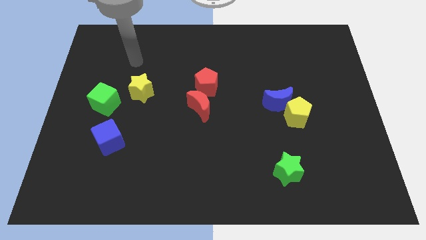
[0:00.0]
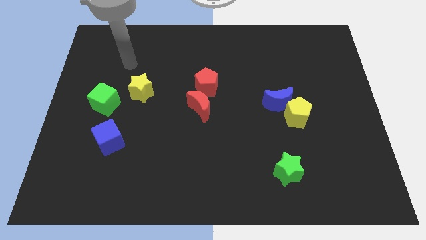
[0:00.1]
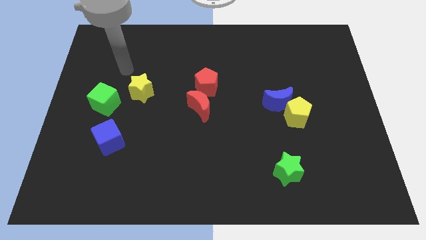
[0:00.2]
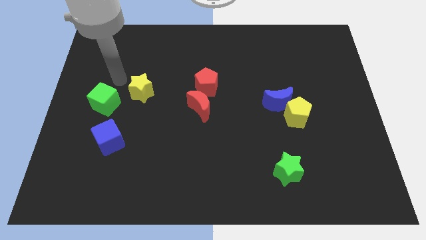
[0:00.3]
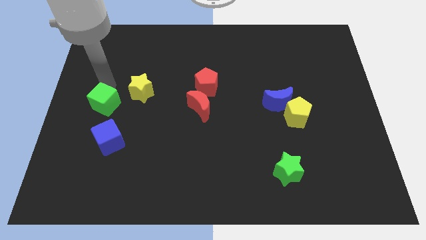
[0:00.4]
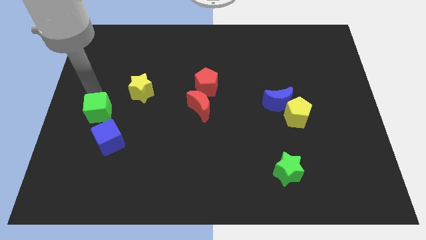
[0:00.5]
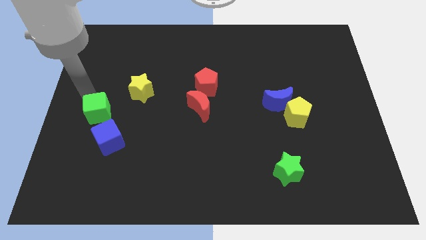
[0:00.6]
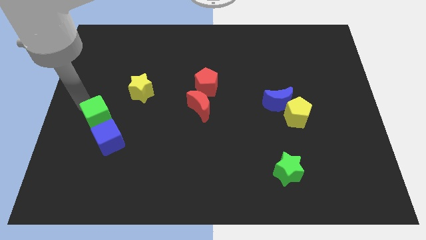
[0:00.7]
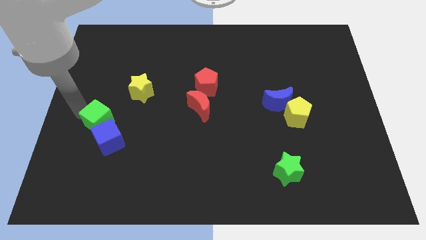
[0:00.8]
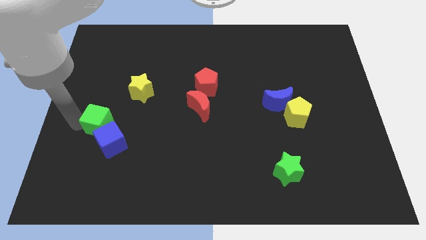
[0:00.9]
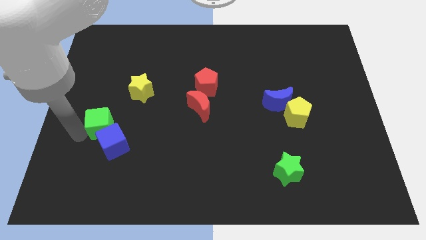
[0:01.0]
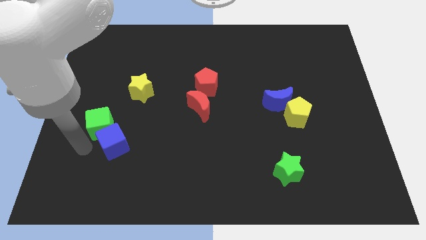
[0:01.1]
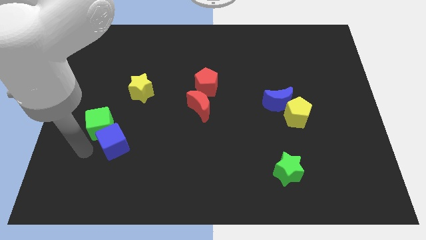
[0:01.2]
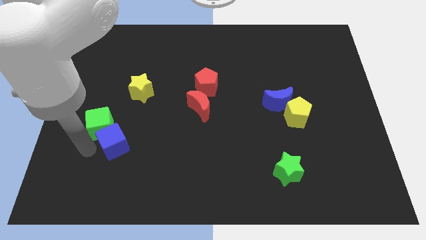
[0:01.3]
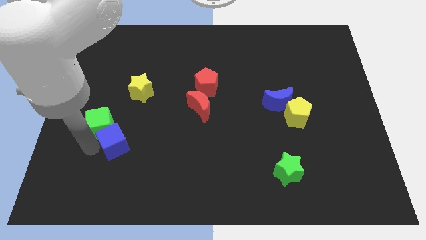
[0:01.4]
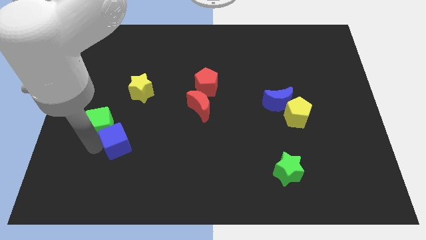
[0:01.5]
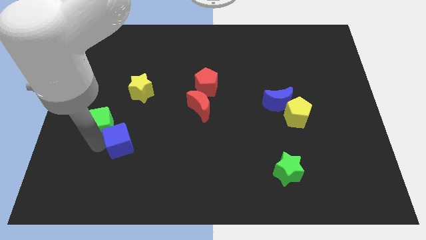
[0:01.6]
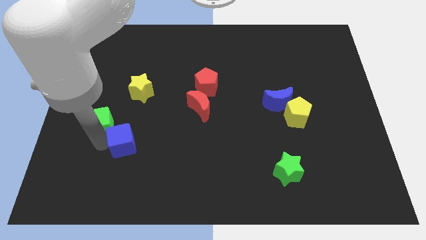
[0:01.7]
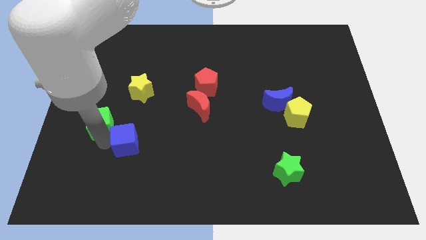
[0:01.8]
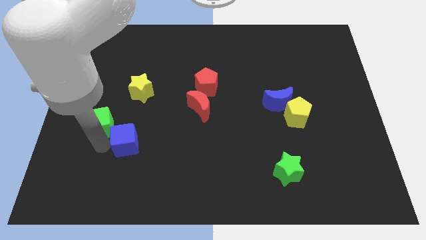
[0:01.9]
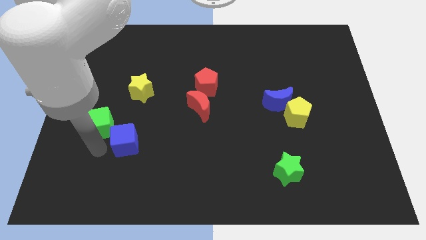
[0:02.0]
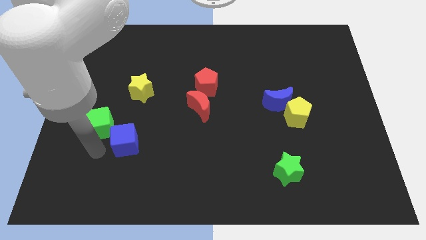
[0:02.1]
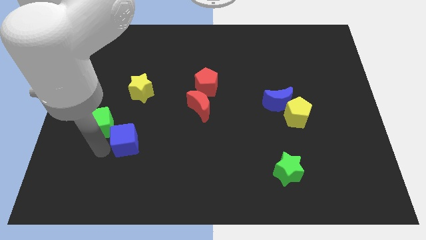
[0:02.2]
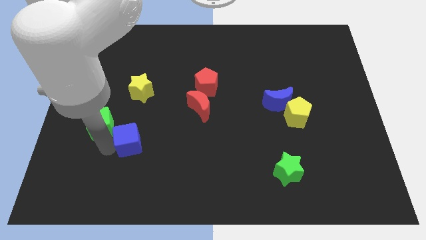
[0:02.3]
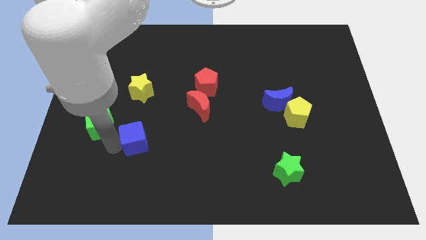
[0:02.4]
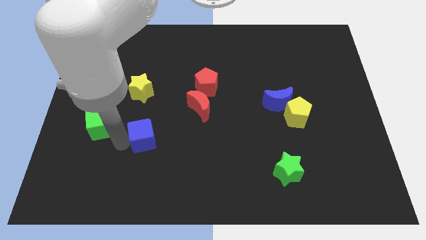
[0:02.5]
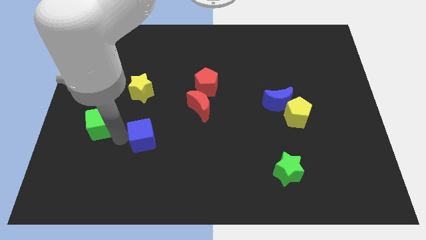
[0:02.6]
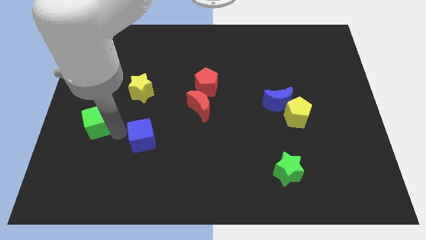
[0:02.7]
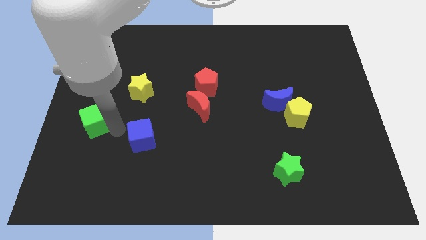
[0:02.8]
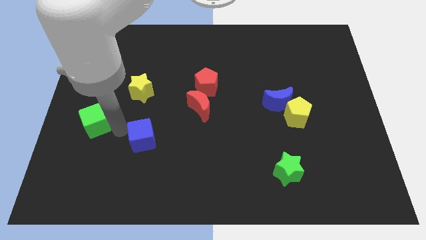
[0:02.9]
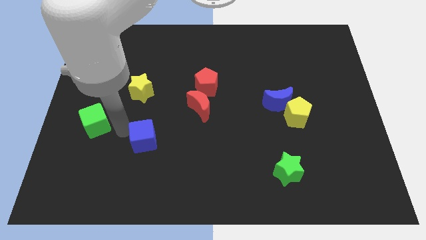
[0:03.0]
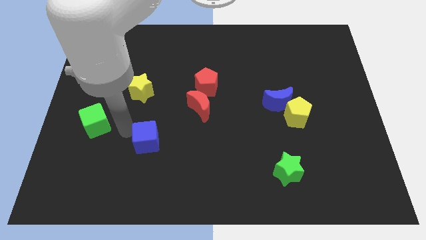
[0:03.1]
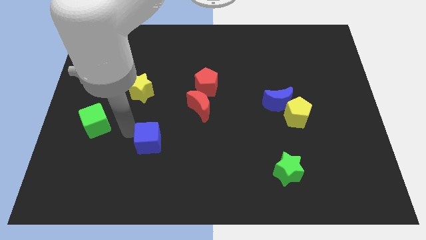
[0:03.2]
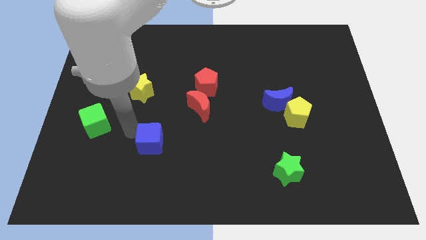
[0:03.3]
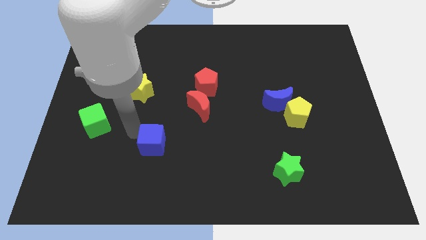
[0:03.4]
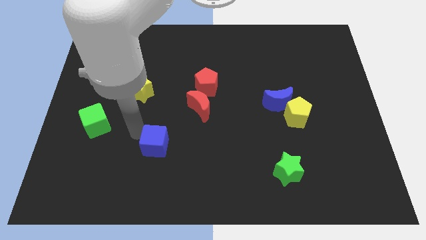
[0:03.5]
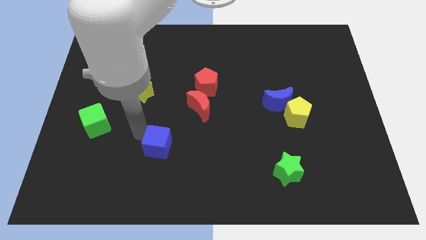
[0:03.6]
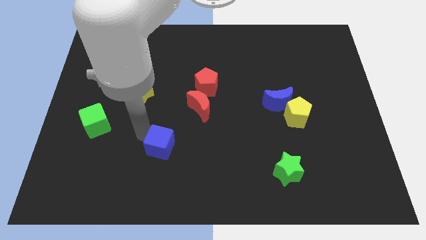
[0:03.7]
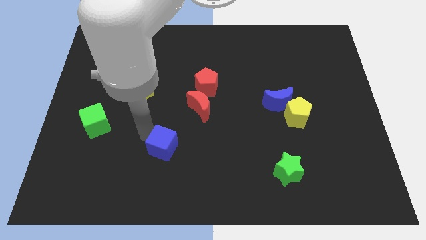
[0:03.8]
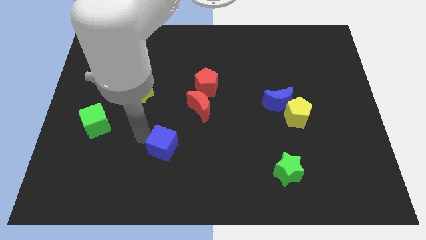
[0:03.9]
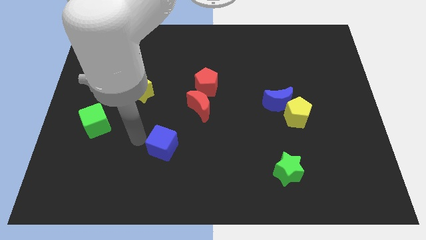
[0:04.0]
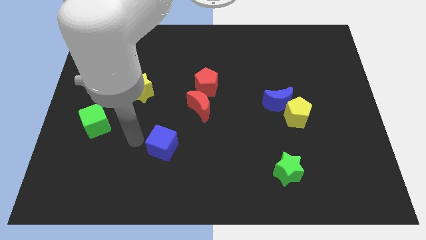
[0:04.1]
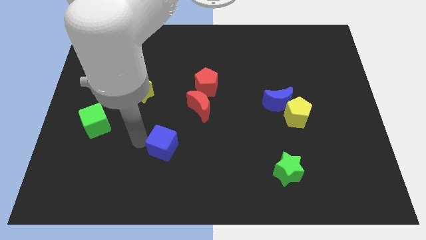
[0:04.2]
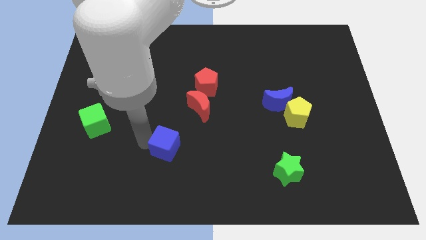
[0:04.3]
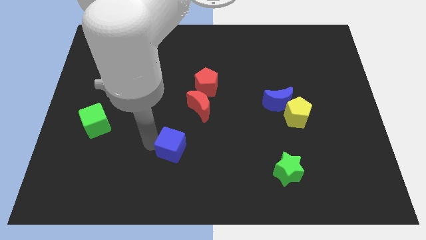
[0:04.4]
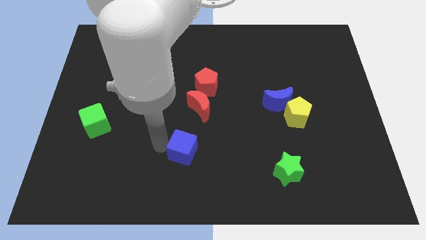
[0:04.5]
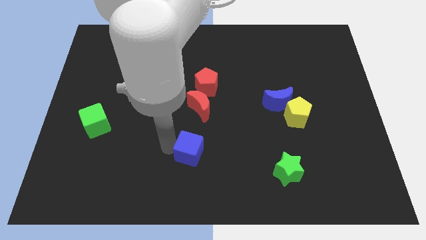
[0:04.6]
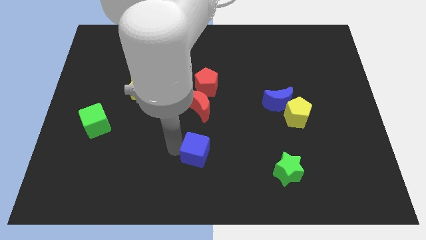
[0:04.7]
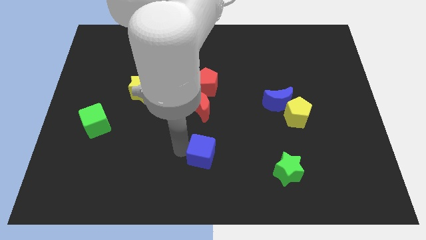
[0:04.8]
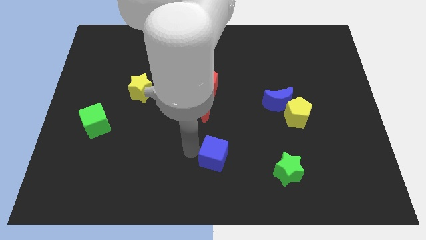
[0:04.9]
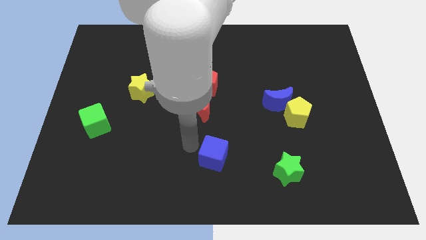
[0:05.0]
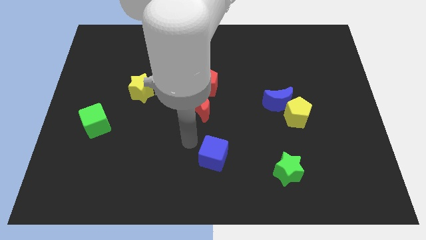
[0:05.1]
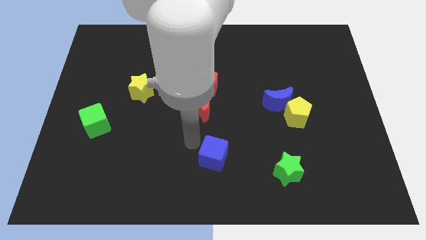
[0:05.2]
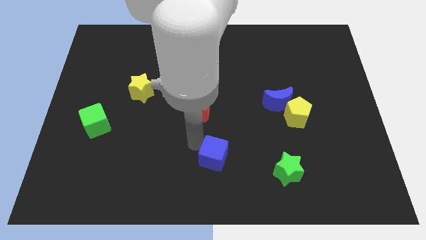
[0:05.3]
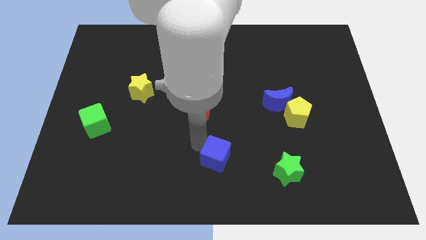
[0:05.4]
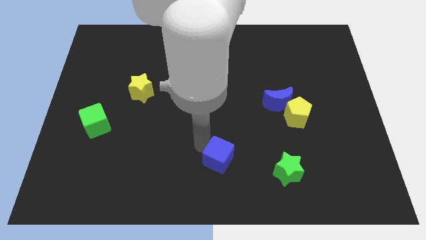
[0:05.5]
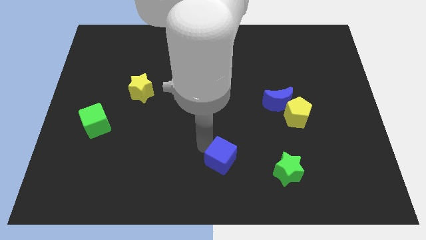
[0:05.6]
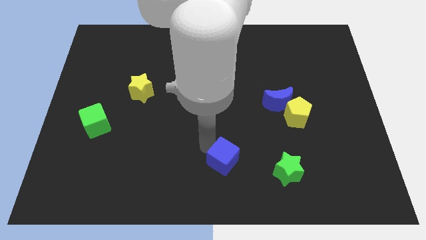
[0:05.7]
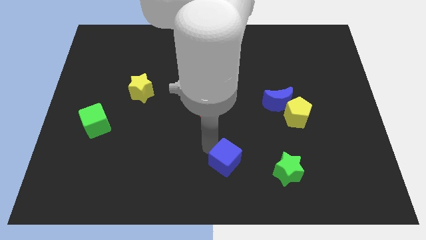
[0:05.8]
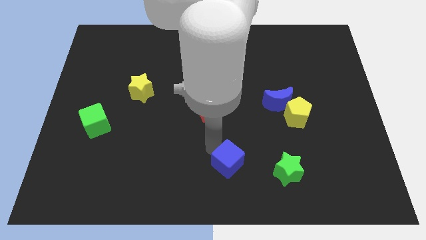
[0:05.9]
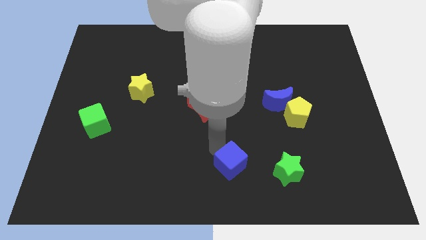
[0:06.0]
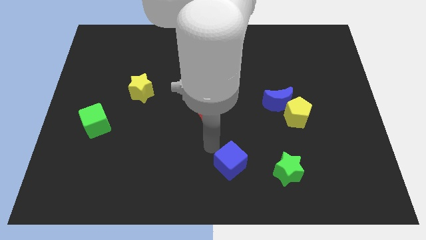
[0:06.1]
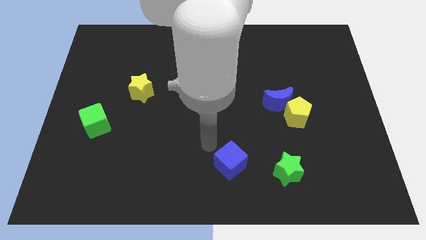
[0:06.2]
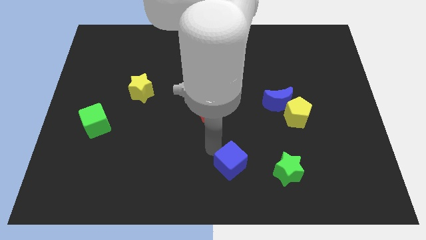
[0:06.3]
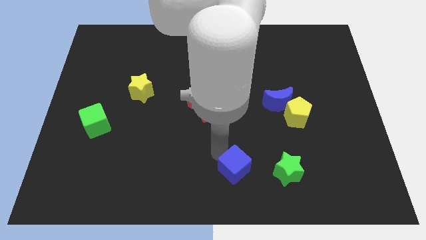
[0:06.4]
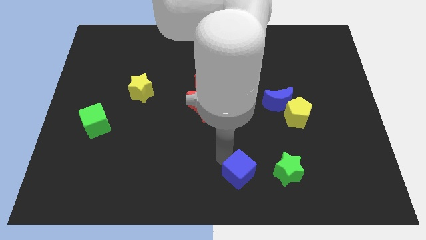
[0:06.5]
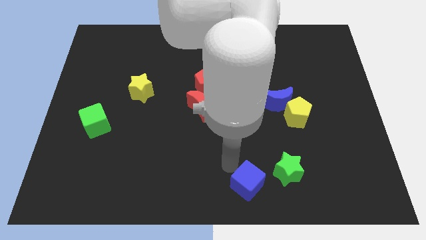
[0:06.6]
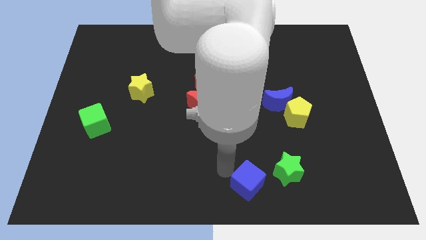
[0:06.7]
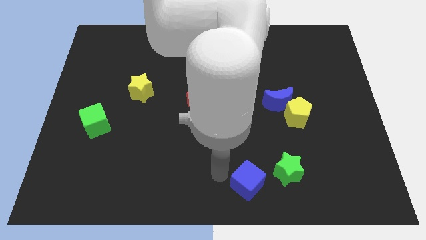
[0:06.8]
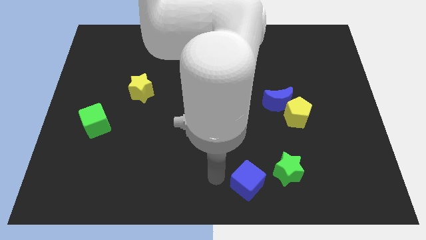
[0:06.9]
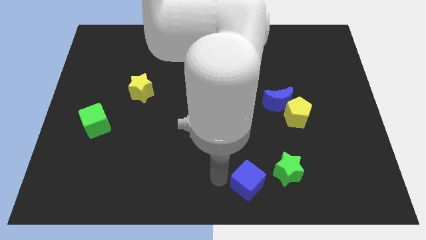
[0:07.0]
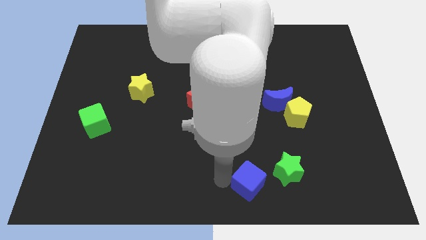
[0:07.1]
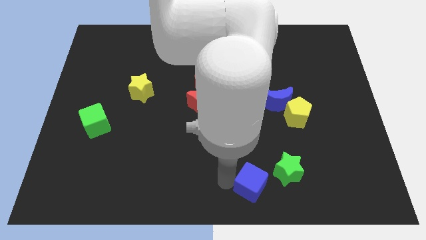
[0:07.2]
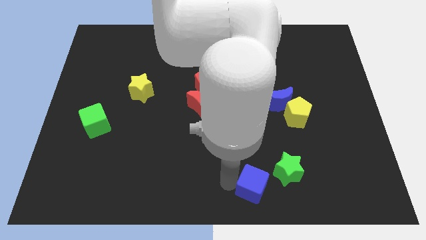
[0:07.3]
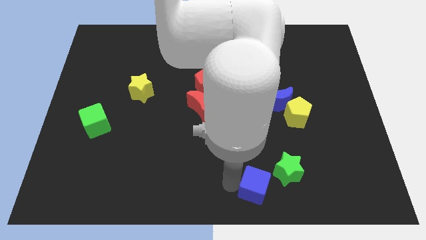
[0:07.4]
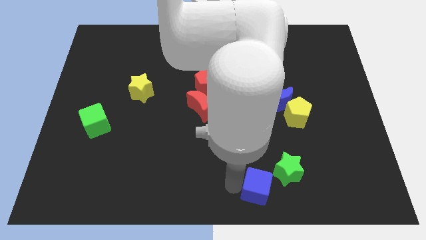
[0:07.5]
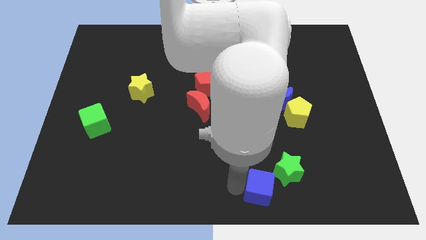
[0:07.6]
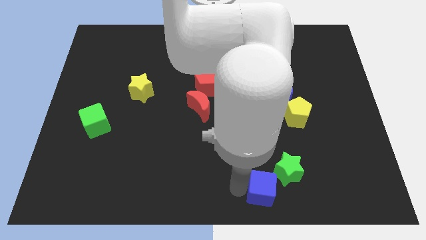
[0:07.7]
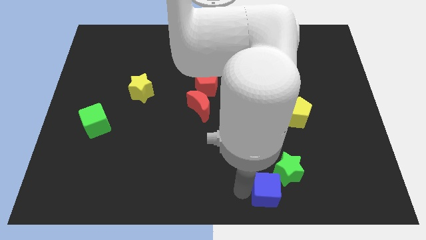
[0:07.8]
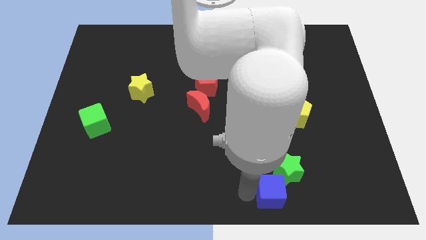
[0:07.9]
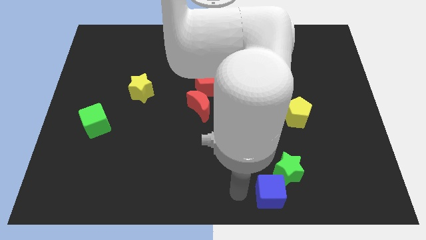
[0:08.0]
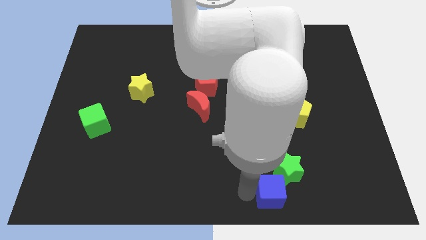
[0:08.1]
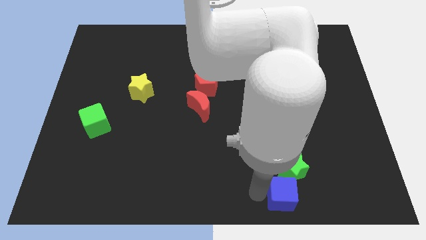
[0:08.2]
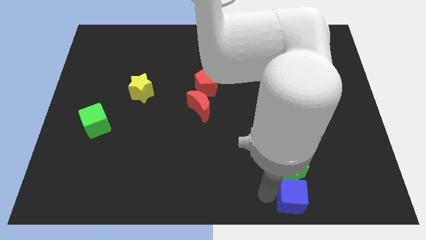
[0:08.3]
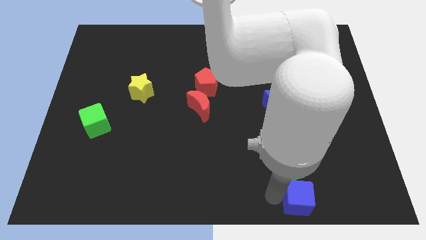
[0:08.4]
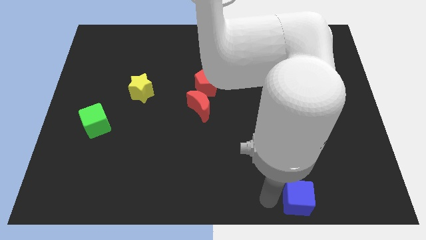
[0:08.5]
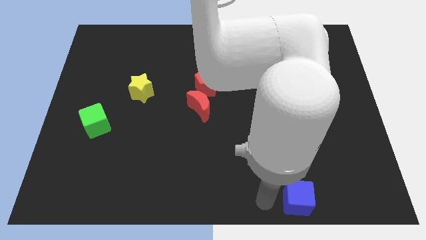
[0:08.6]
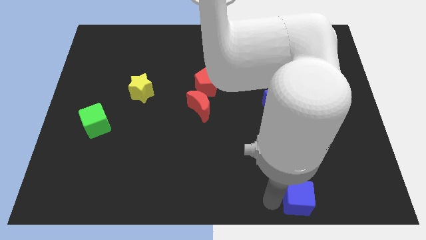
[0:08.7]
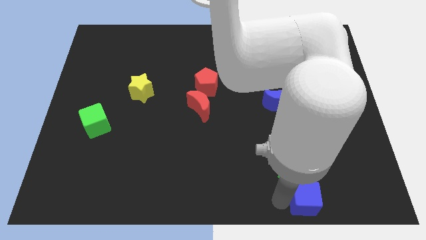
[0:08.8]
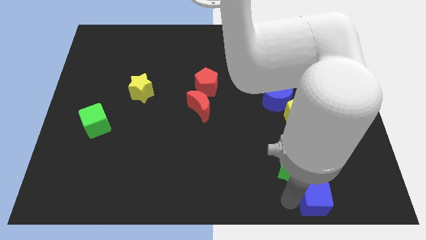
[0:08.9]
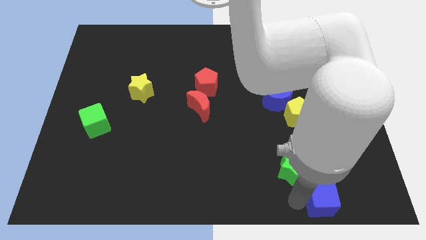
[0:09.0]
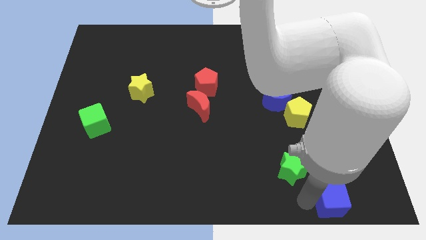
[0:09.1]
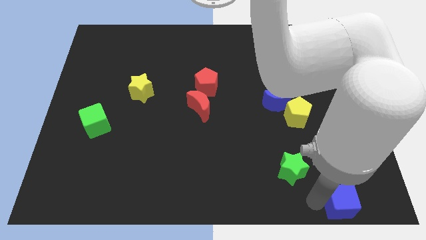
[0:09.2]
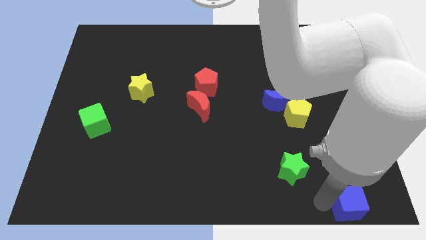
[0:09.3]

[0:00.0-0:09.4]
push the blue cube to the bottom right corner
